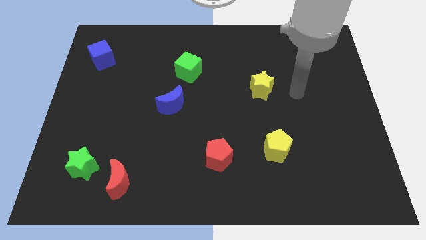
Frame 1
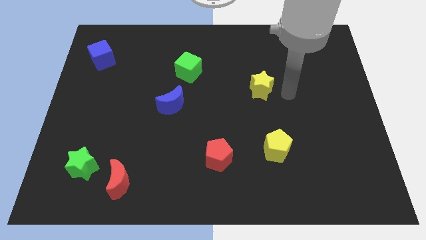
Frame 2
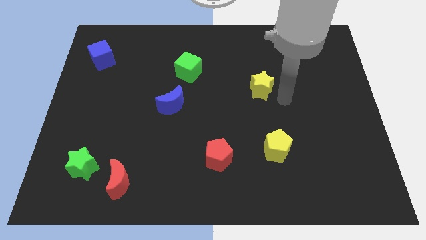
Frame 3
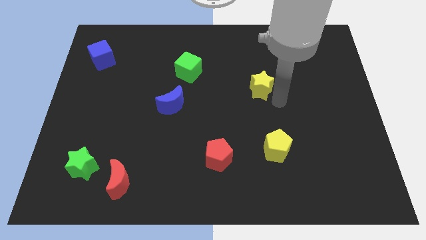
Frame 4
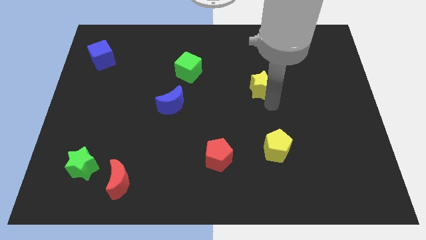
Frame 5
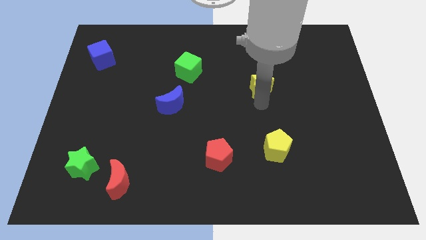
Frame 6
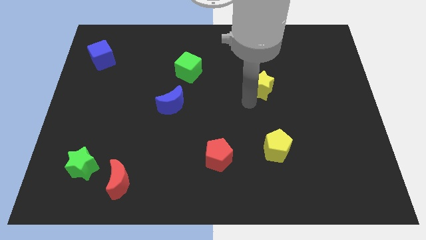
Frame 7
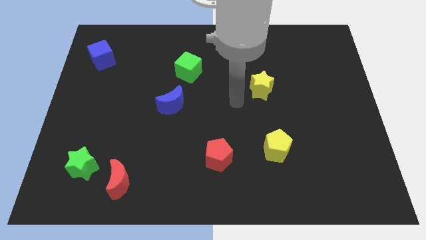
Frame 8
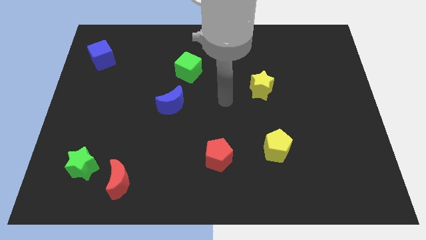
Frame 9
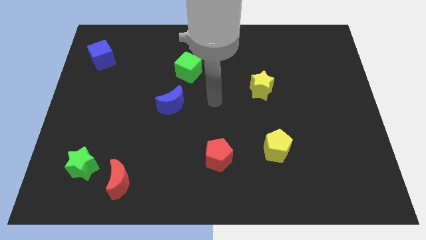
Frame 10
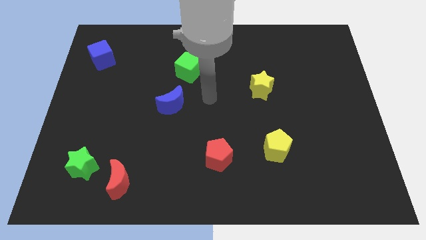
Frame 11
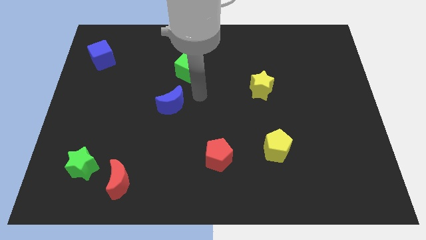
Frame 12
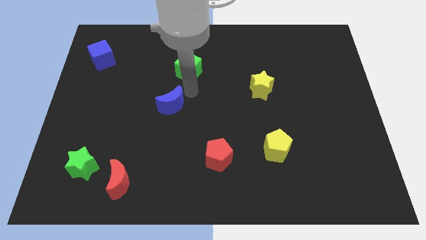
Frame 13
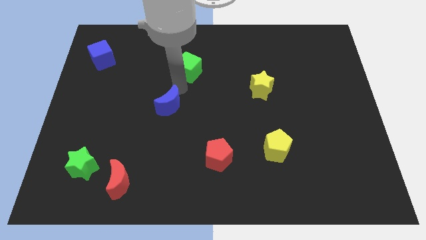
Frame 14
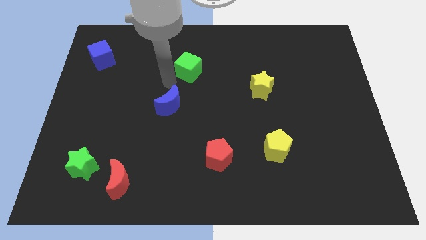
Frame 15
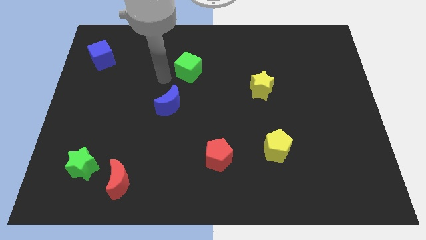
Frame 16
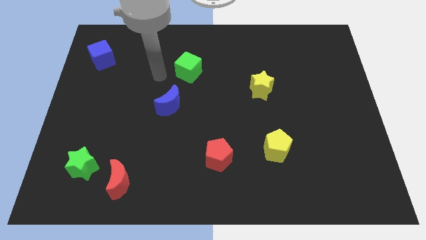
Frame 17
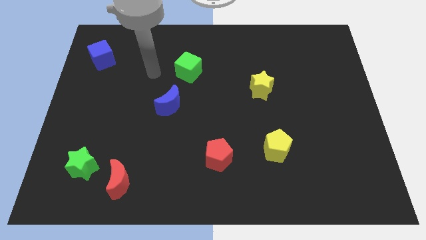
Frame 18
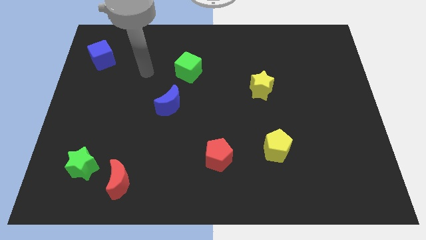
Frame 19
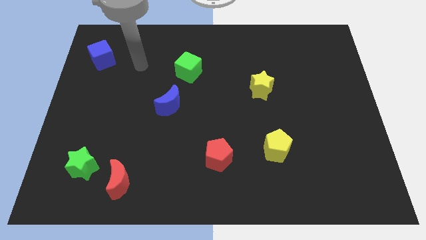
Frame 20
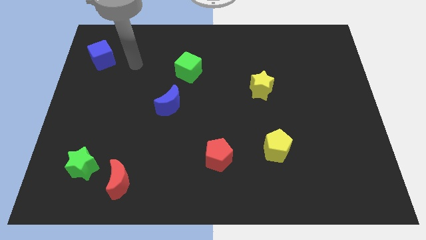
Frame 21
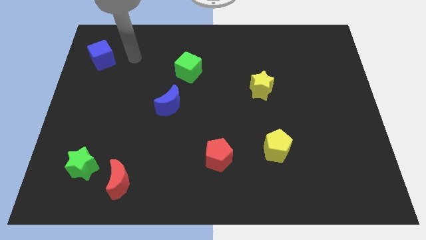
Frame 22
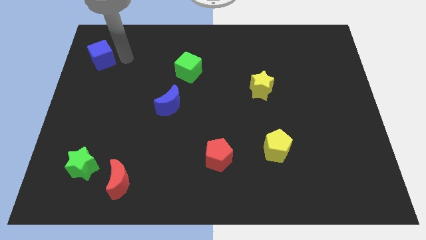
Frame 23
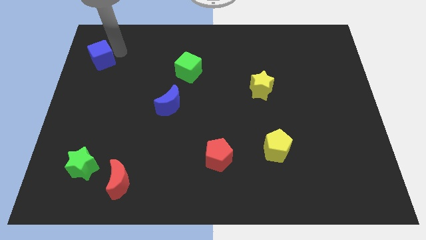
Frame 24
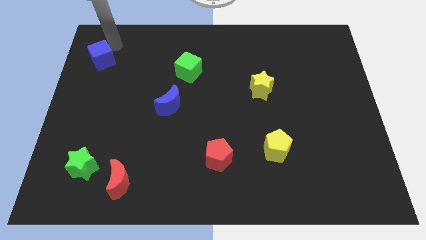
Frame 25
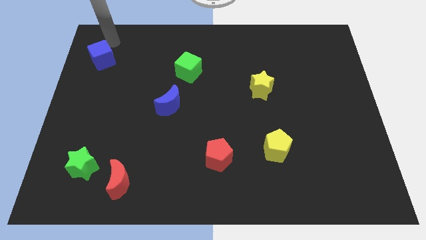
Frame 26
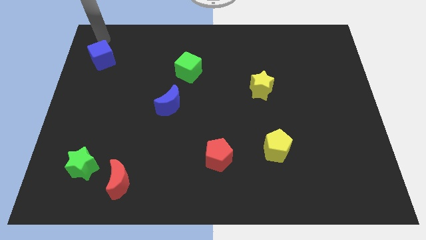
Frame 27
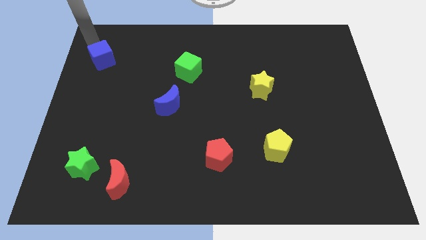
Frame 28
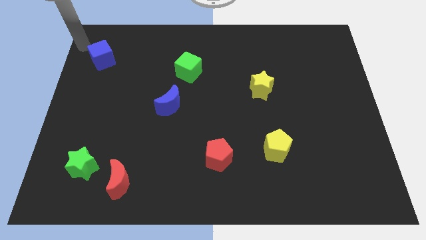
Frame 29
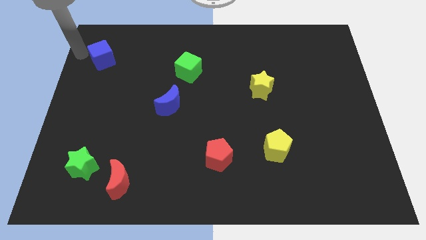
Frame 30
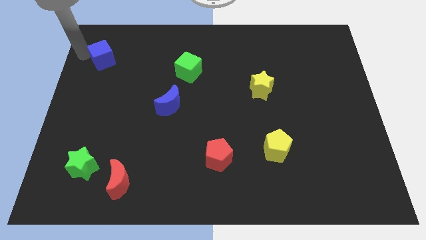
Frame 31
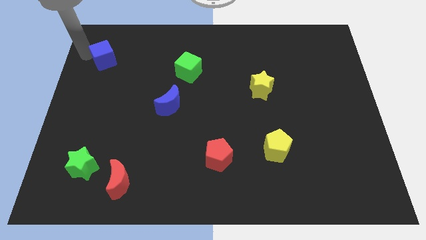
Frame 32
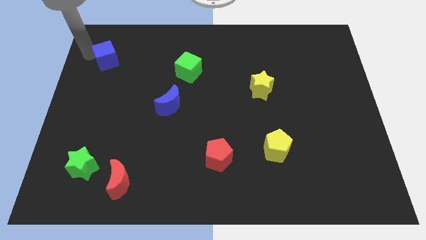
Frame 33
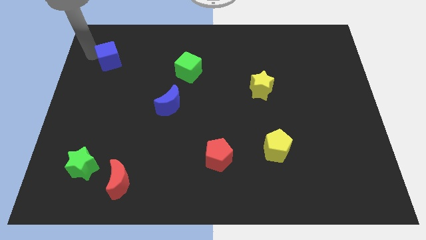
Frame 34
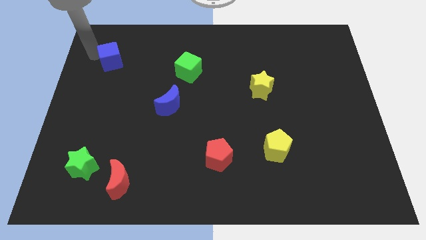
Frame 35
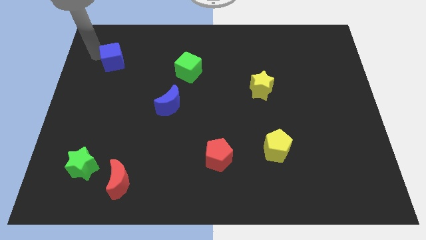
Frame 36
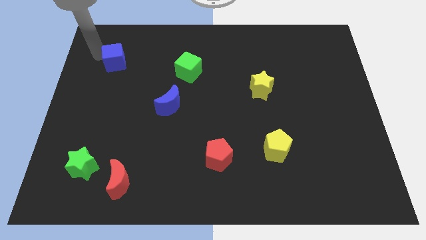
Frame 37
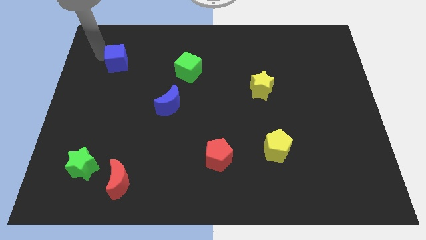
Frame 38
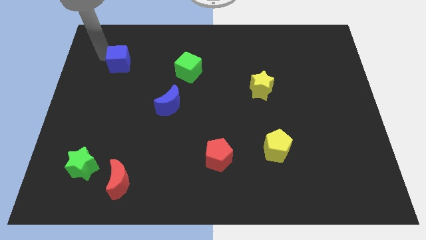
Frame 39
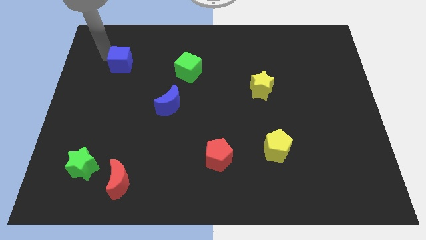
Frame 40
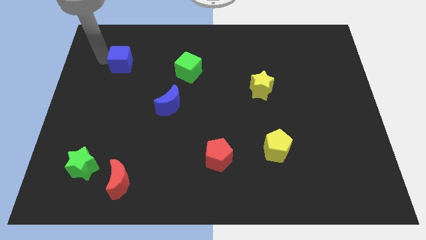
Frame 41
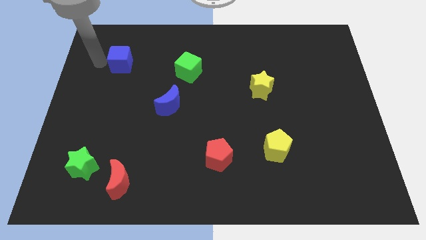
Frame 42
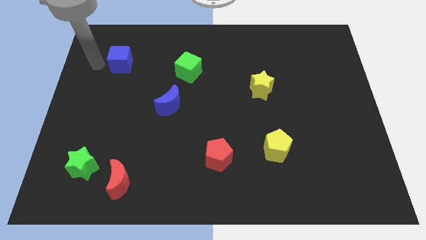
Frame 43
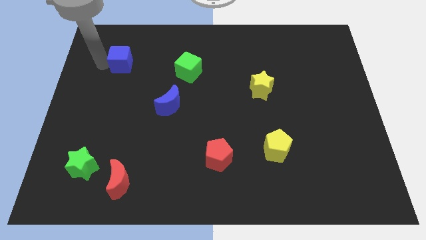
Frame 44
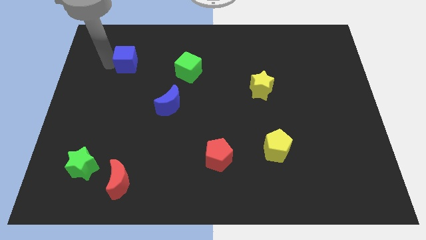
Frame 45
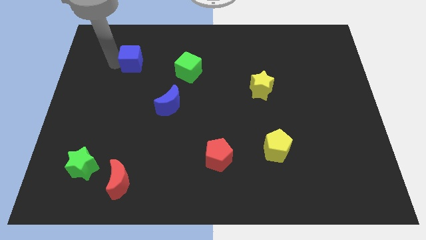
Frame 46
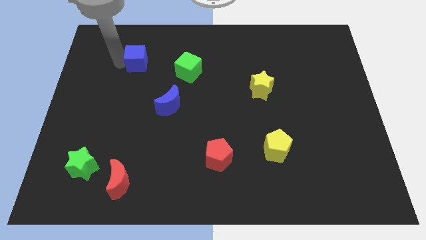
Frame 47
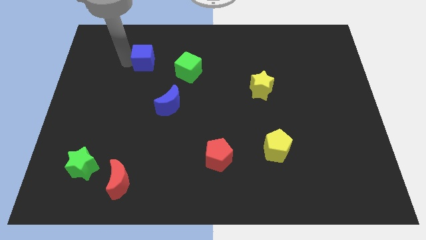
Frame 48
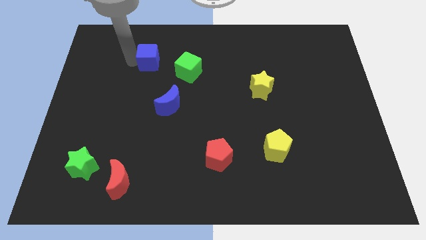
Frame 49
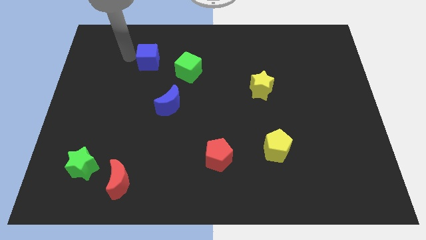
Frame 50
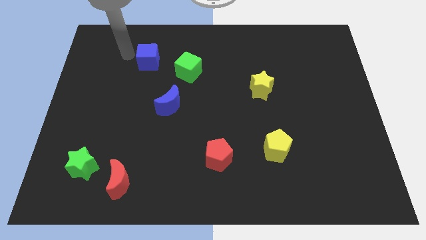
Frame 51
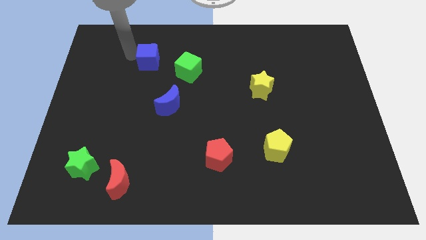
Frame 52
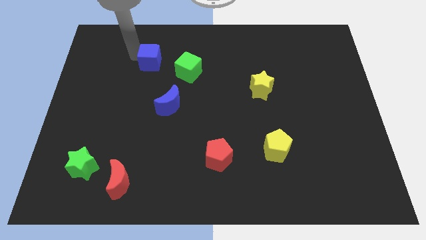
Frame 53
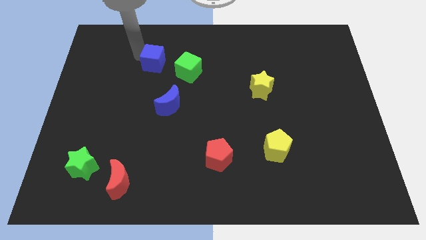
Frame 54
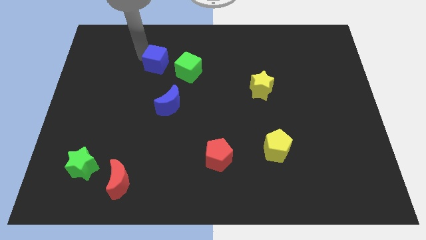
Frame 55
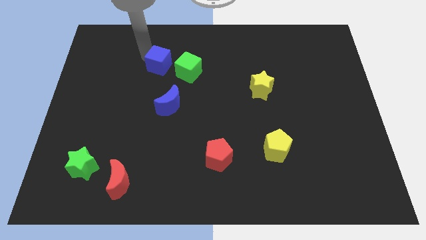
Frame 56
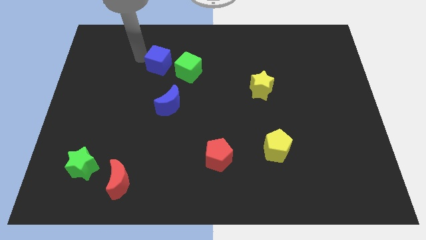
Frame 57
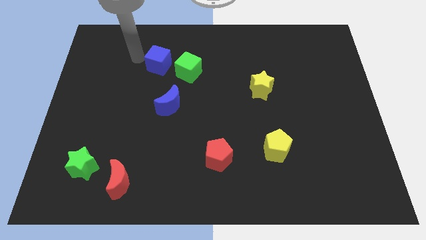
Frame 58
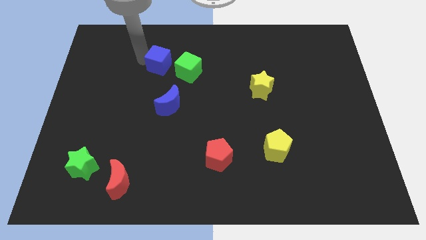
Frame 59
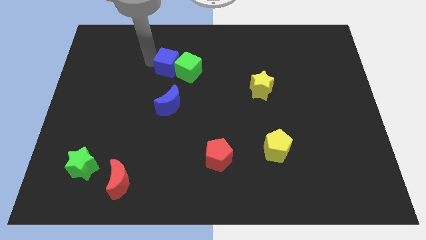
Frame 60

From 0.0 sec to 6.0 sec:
move the blue cube to the green cube
